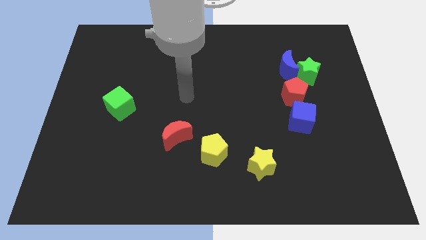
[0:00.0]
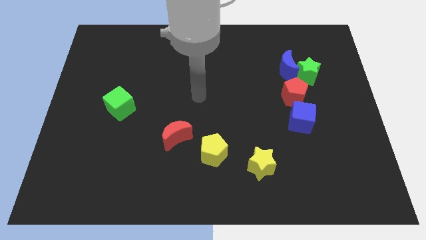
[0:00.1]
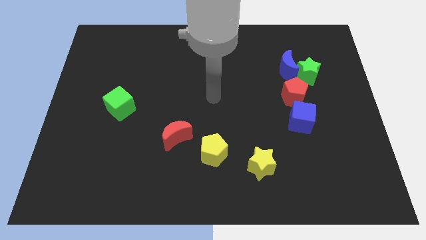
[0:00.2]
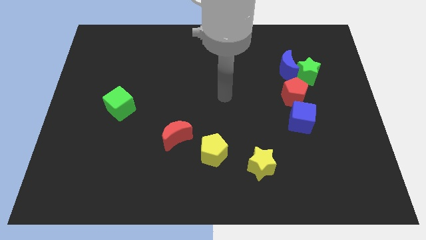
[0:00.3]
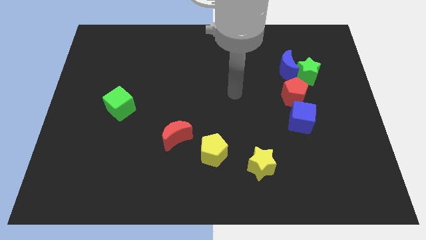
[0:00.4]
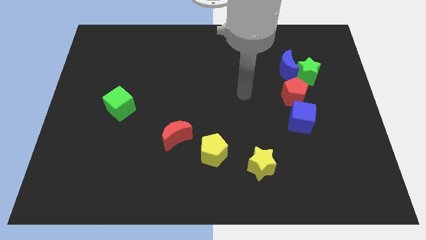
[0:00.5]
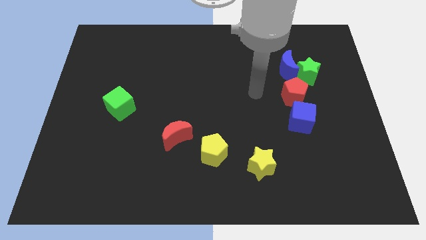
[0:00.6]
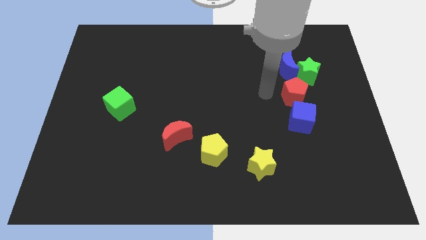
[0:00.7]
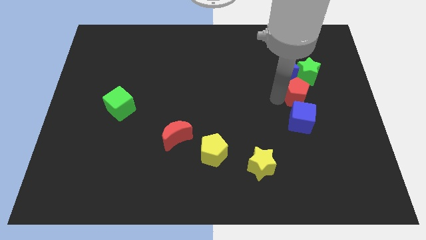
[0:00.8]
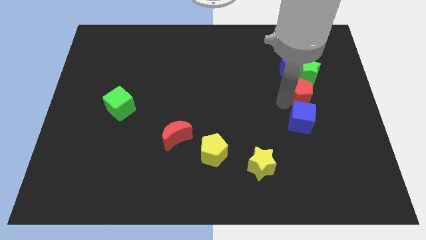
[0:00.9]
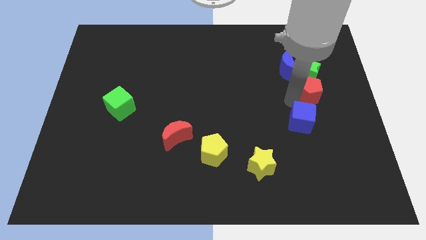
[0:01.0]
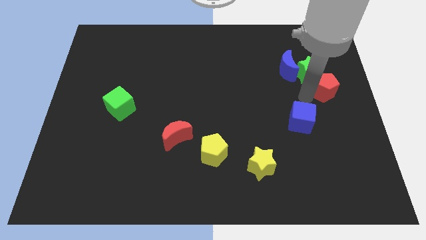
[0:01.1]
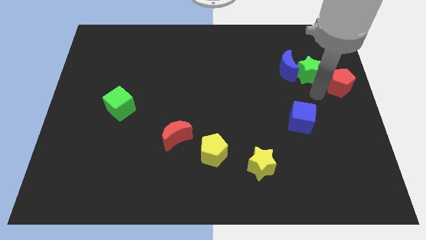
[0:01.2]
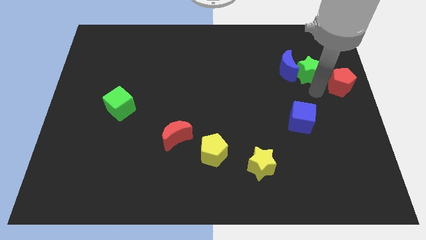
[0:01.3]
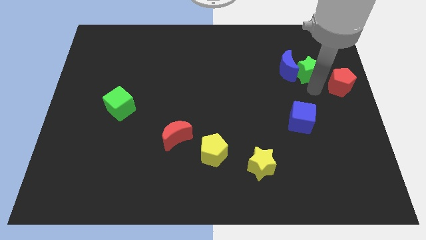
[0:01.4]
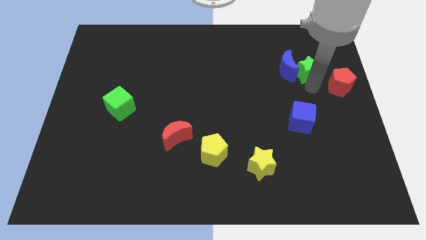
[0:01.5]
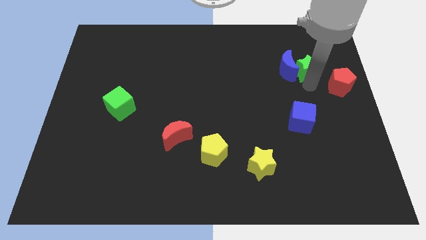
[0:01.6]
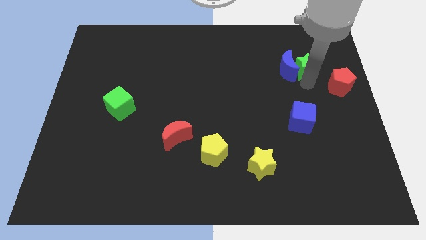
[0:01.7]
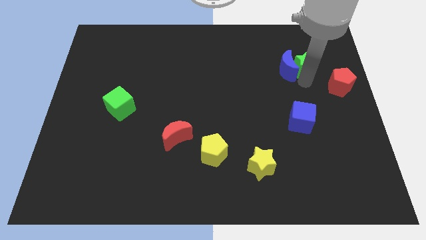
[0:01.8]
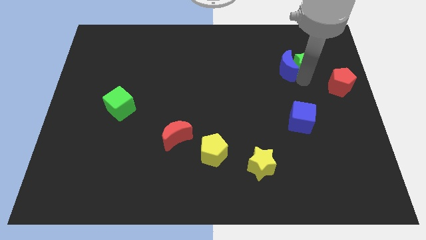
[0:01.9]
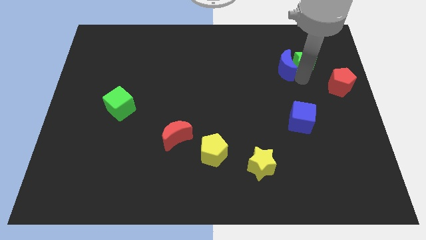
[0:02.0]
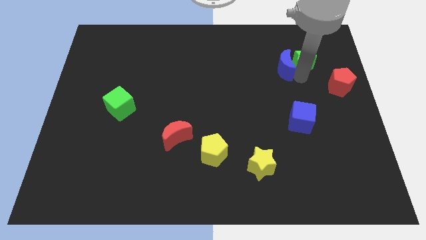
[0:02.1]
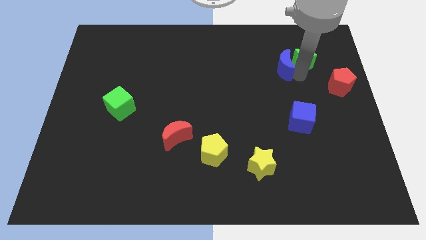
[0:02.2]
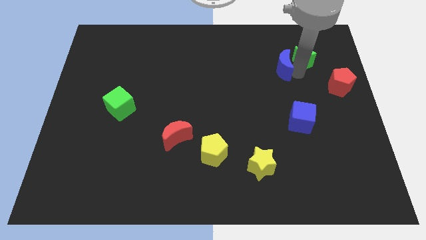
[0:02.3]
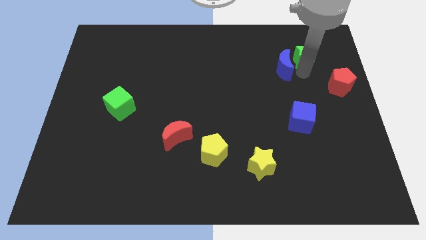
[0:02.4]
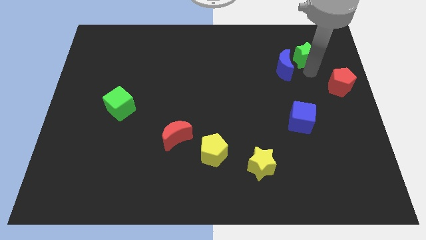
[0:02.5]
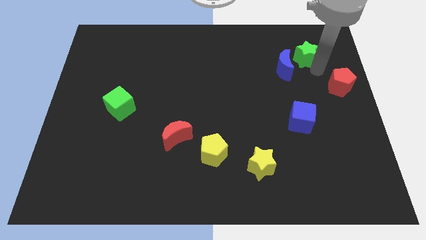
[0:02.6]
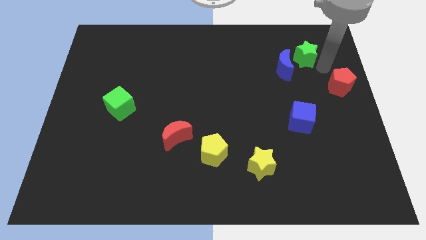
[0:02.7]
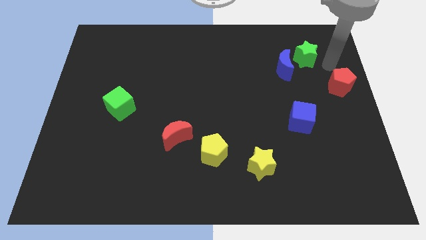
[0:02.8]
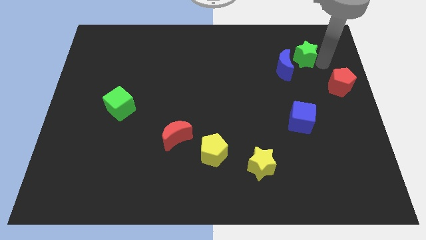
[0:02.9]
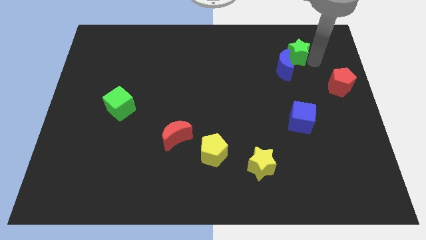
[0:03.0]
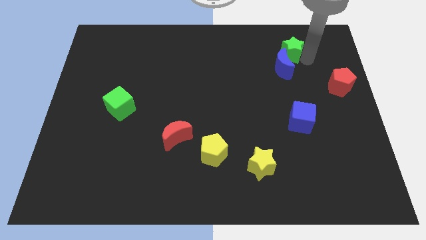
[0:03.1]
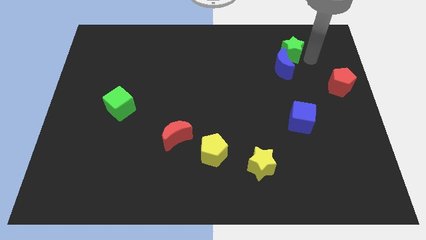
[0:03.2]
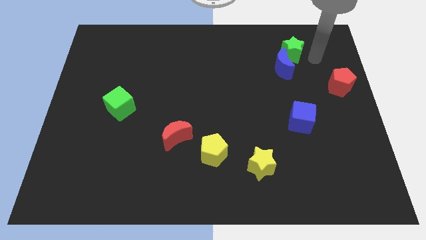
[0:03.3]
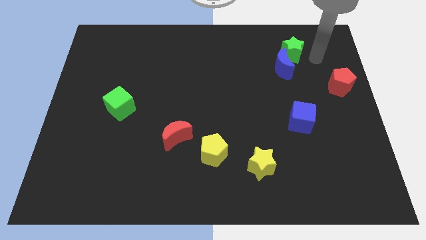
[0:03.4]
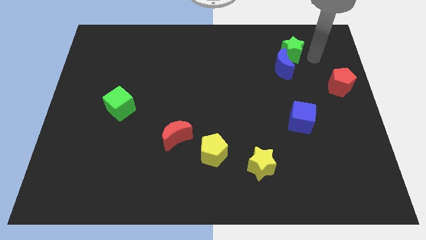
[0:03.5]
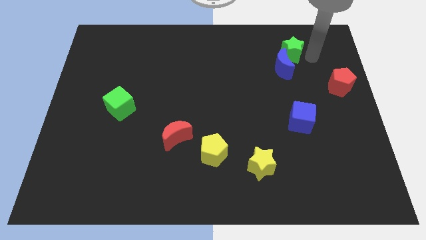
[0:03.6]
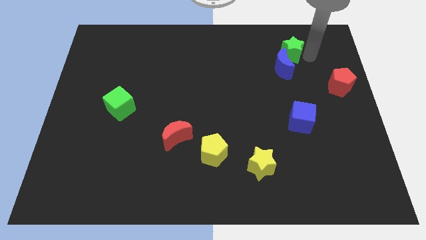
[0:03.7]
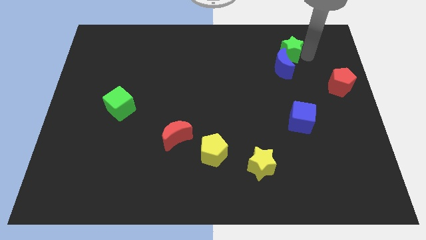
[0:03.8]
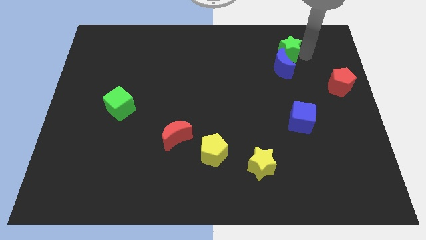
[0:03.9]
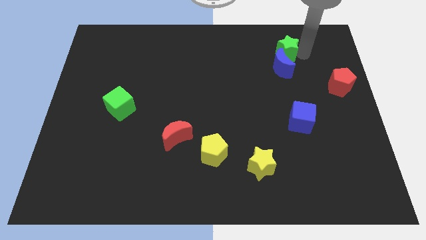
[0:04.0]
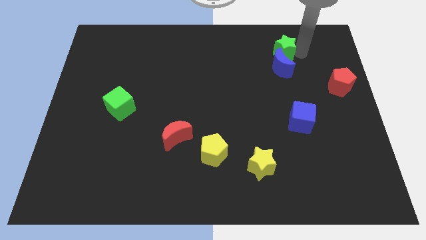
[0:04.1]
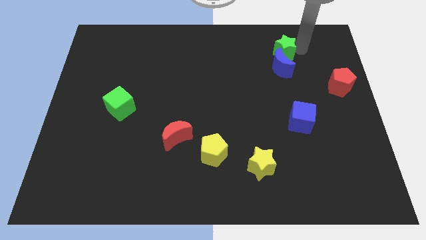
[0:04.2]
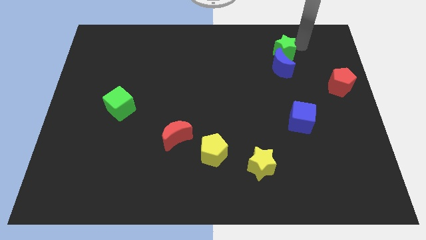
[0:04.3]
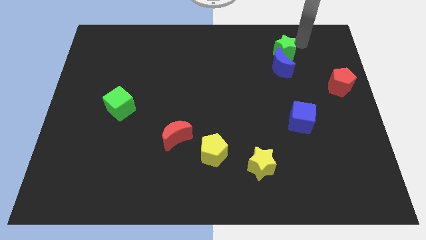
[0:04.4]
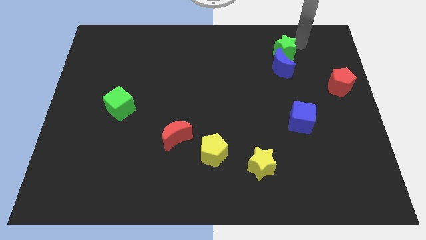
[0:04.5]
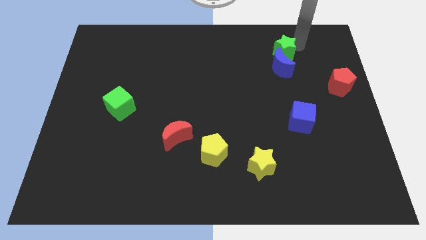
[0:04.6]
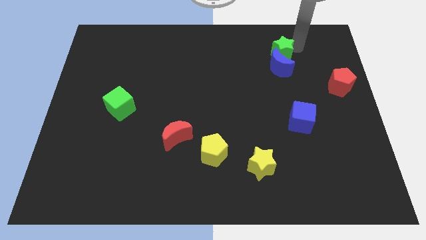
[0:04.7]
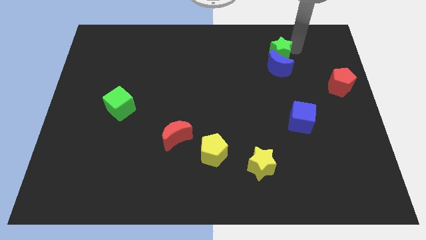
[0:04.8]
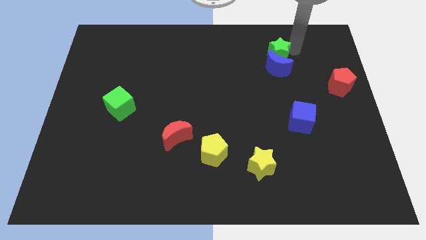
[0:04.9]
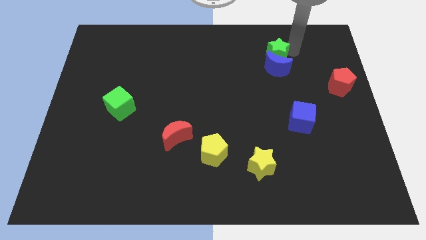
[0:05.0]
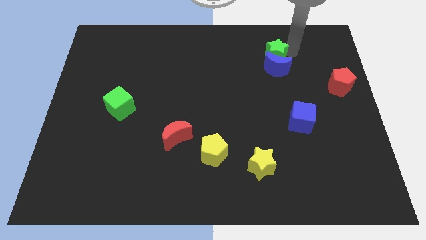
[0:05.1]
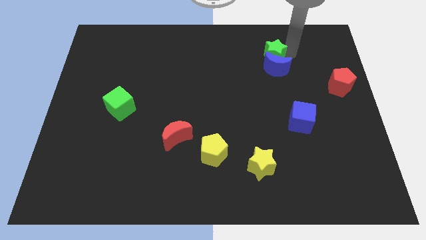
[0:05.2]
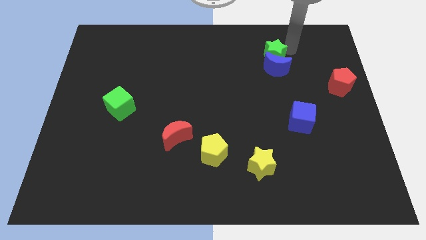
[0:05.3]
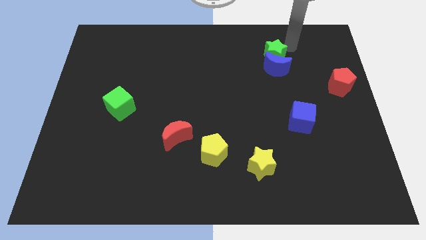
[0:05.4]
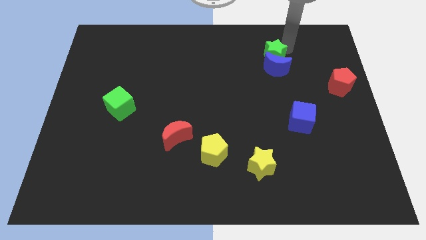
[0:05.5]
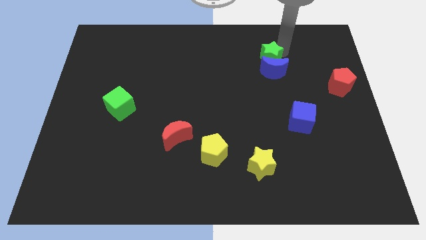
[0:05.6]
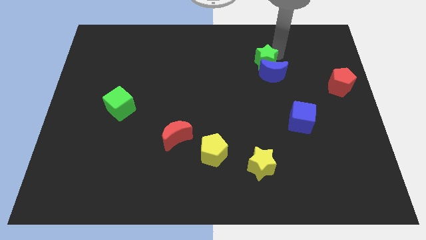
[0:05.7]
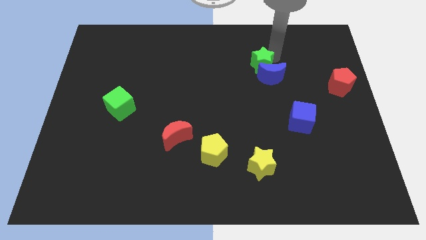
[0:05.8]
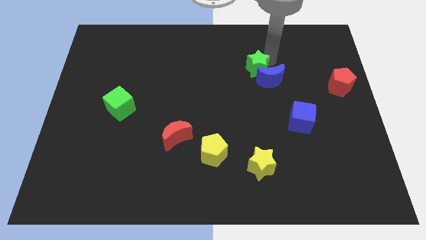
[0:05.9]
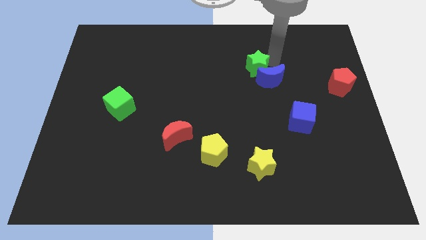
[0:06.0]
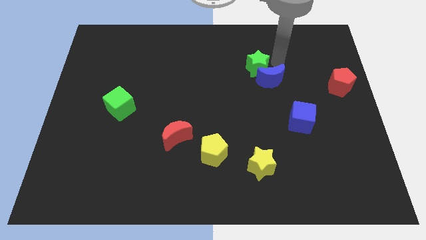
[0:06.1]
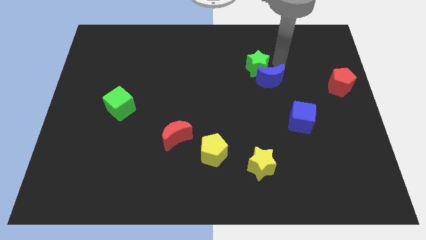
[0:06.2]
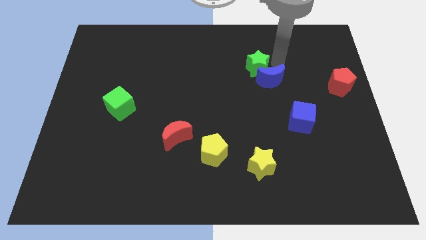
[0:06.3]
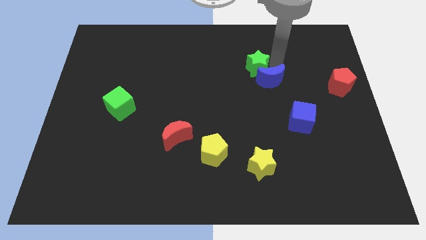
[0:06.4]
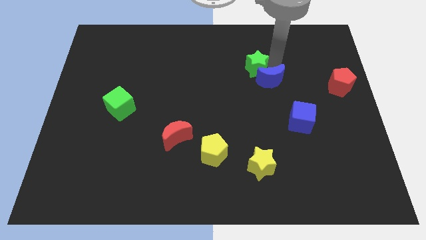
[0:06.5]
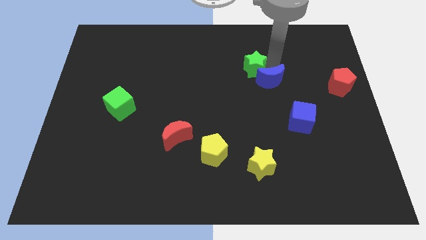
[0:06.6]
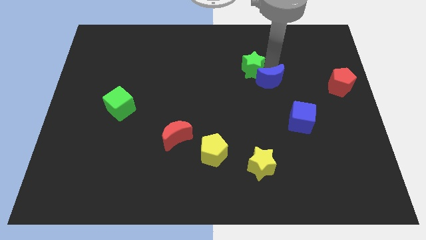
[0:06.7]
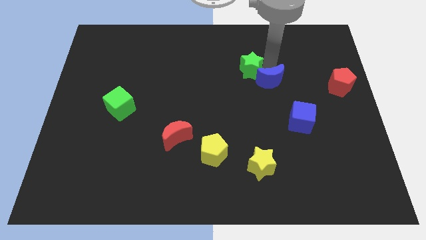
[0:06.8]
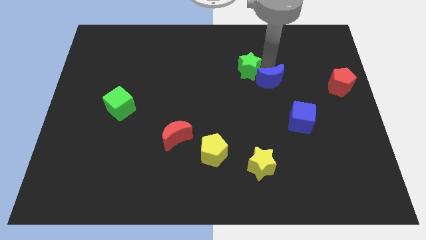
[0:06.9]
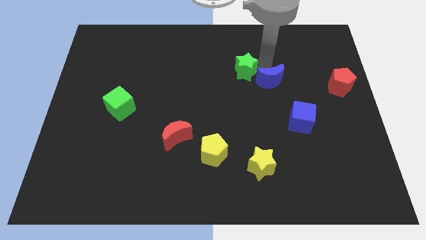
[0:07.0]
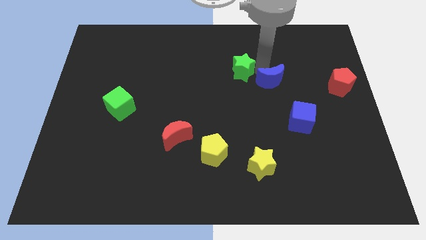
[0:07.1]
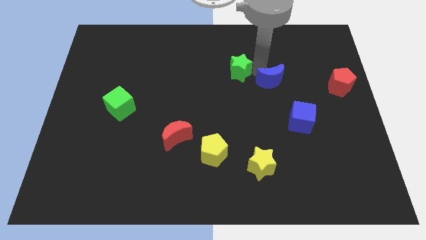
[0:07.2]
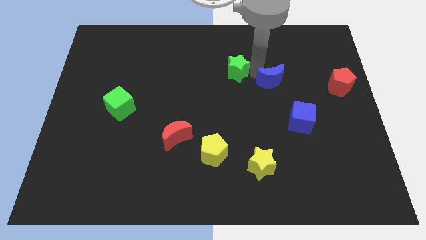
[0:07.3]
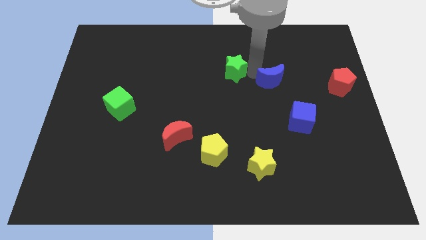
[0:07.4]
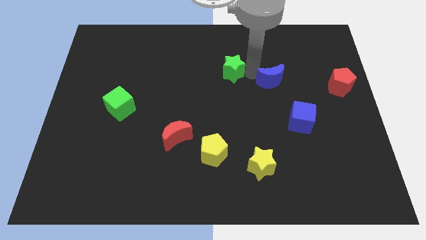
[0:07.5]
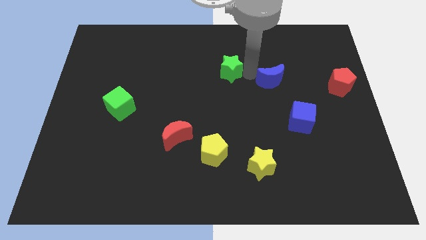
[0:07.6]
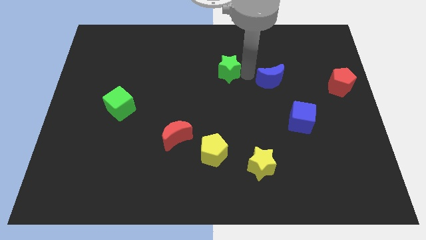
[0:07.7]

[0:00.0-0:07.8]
move the green star left

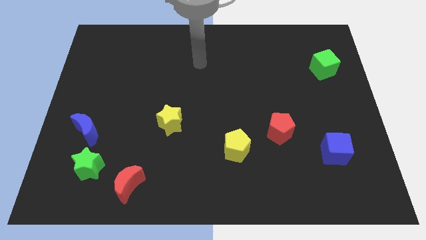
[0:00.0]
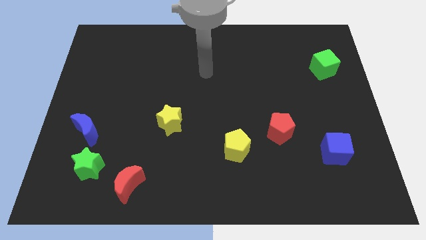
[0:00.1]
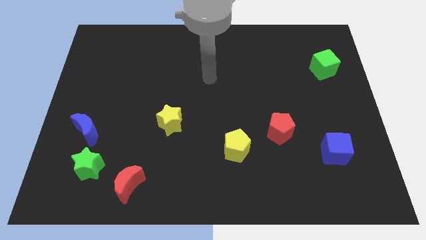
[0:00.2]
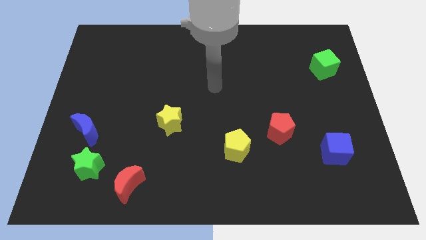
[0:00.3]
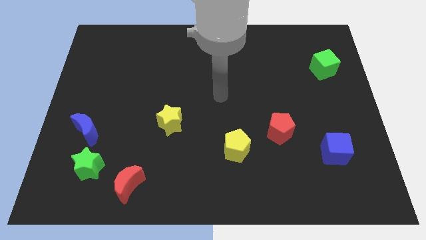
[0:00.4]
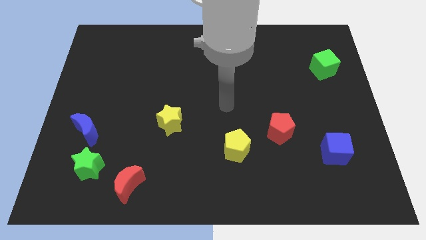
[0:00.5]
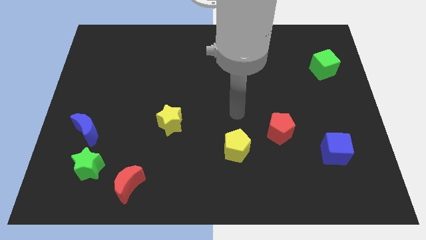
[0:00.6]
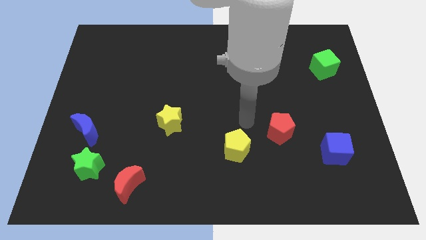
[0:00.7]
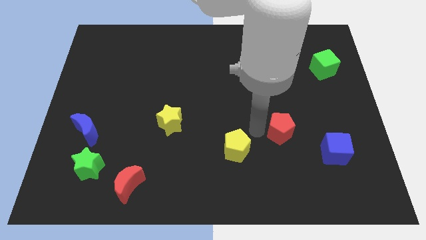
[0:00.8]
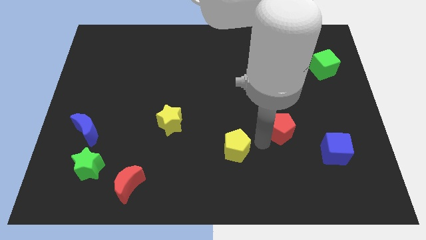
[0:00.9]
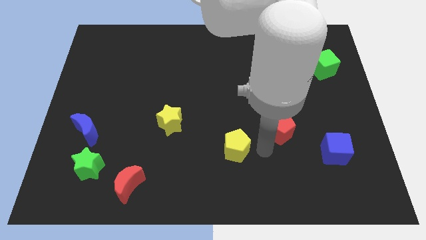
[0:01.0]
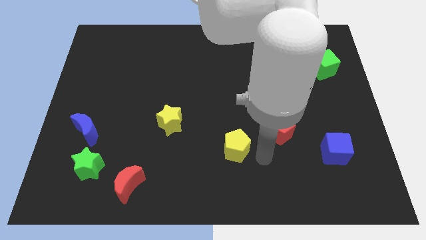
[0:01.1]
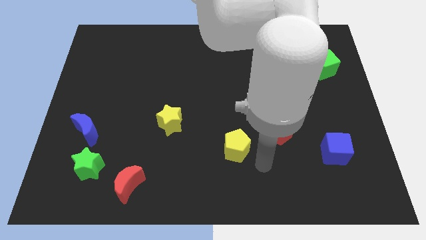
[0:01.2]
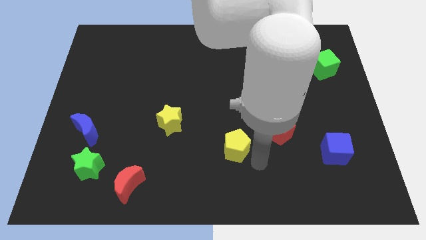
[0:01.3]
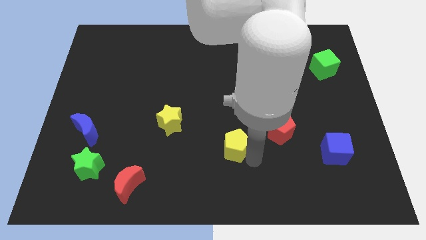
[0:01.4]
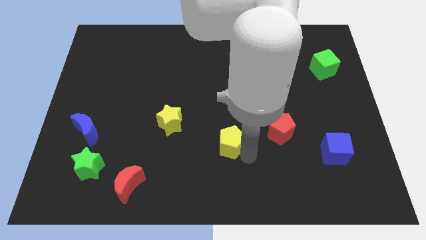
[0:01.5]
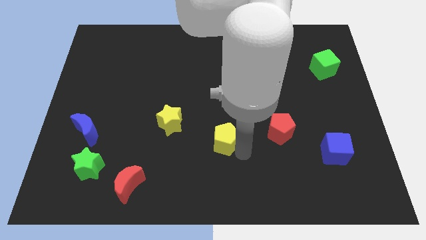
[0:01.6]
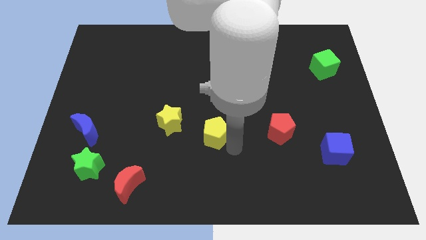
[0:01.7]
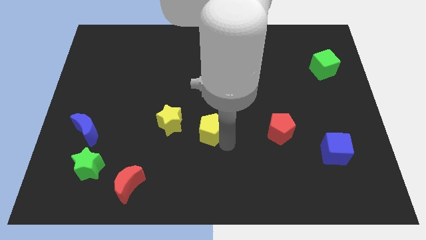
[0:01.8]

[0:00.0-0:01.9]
slightly push the yellow pentagon up and to the left
